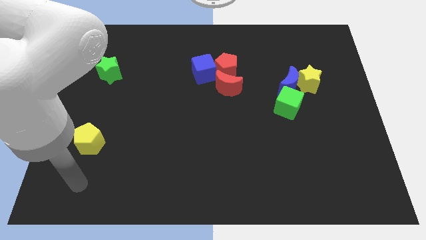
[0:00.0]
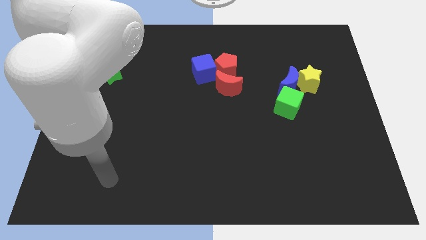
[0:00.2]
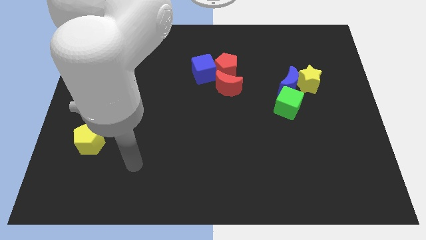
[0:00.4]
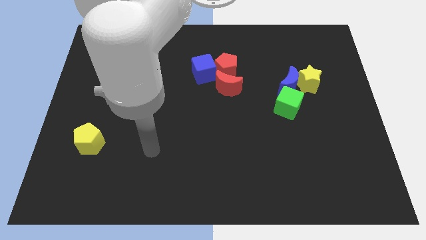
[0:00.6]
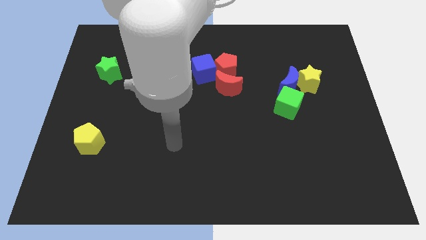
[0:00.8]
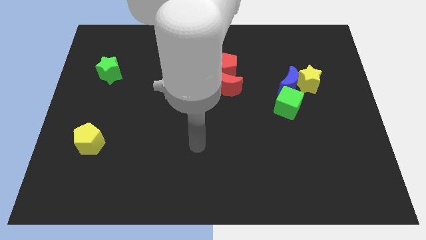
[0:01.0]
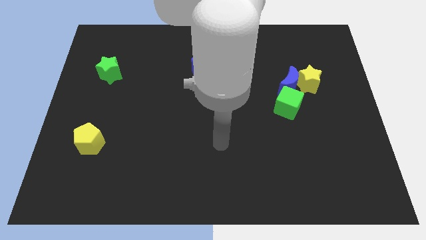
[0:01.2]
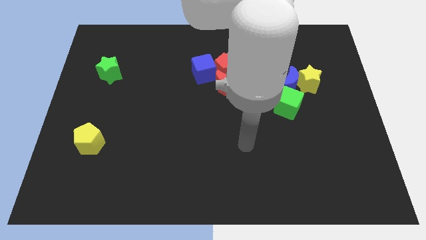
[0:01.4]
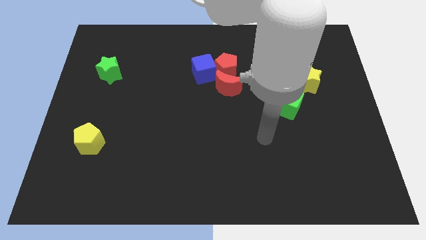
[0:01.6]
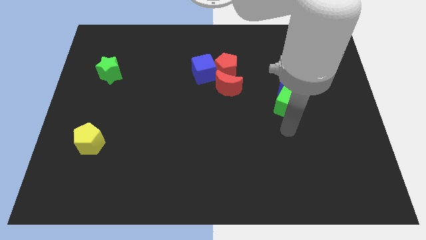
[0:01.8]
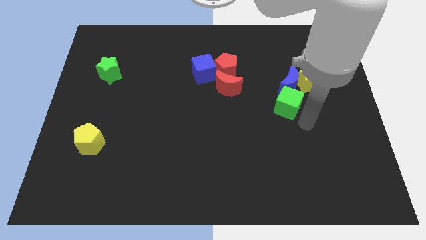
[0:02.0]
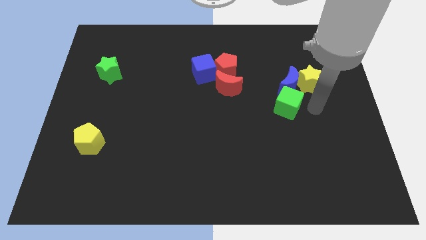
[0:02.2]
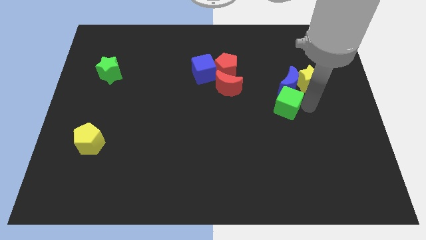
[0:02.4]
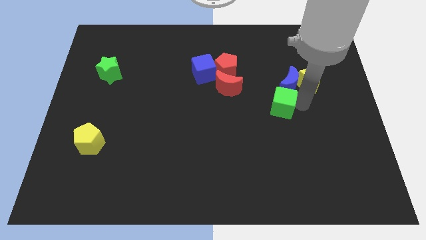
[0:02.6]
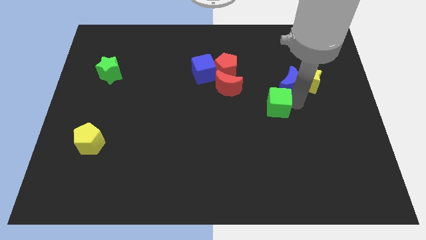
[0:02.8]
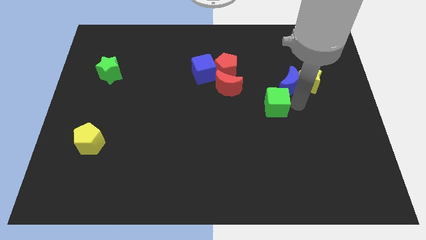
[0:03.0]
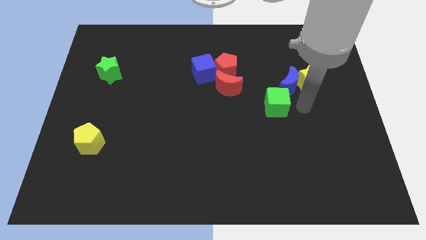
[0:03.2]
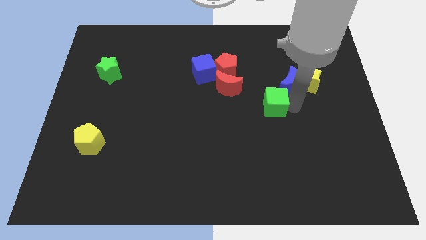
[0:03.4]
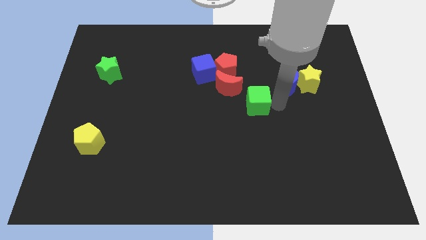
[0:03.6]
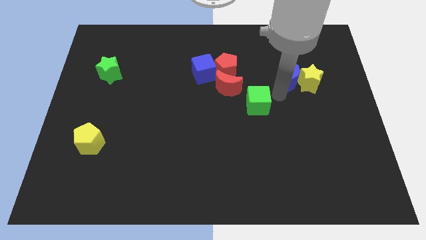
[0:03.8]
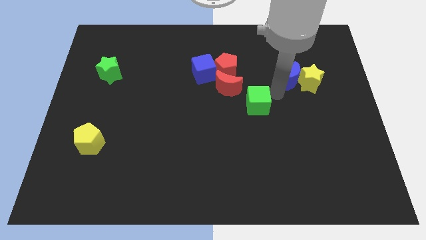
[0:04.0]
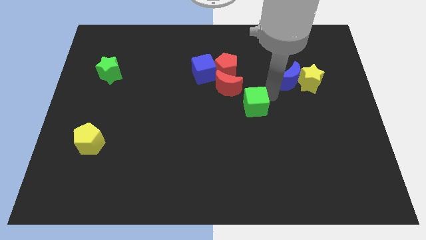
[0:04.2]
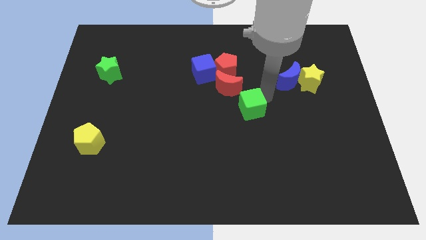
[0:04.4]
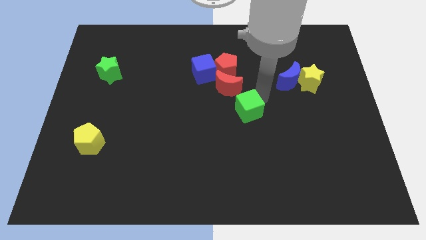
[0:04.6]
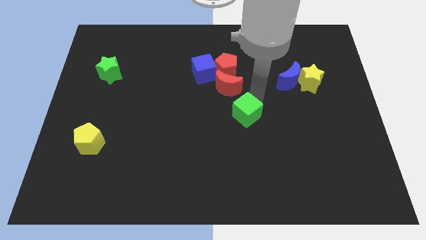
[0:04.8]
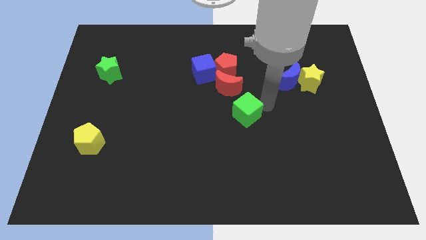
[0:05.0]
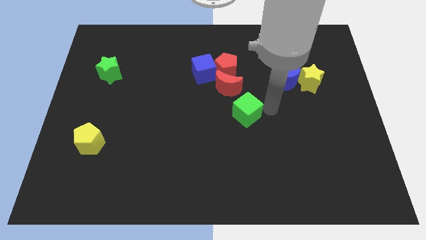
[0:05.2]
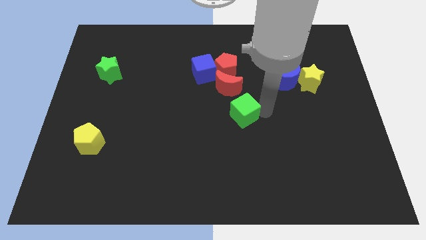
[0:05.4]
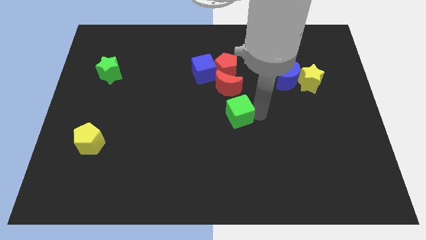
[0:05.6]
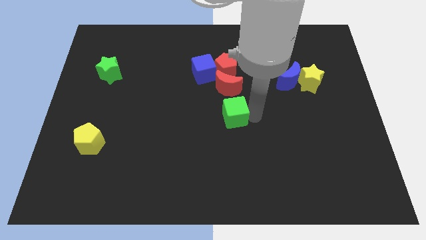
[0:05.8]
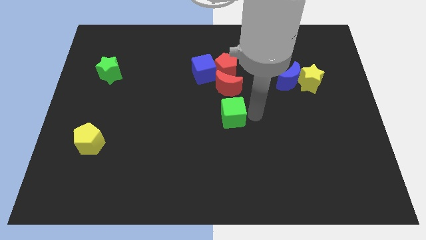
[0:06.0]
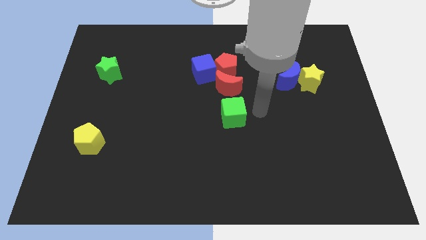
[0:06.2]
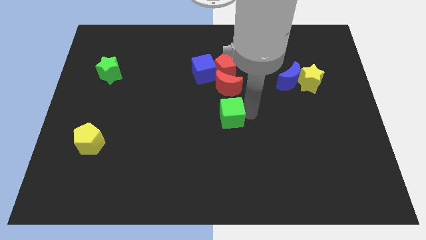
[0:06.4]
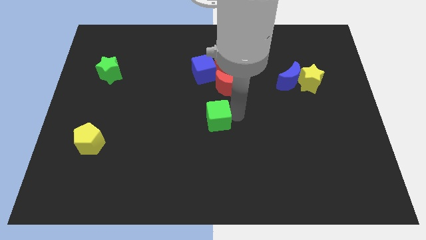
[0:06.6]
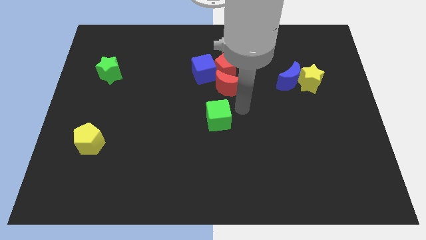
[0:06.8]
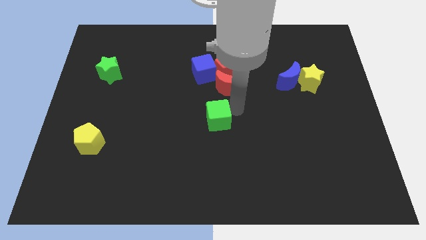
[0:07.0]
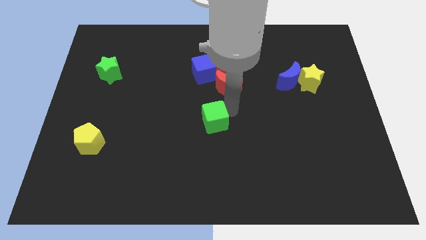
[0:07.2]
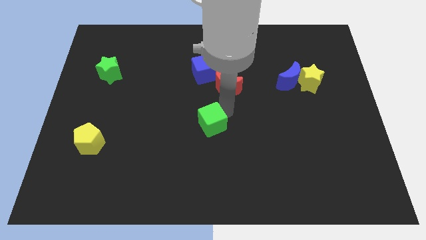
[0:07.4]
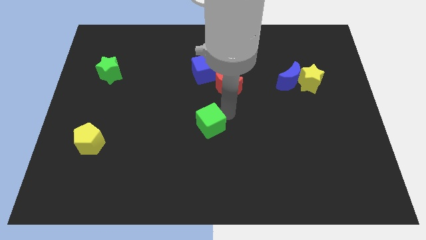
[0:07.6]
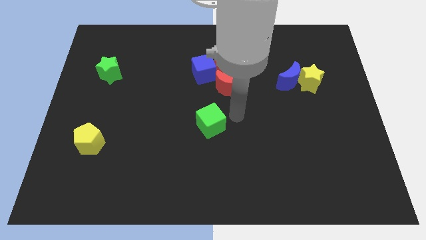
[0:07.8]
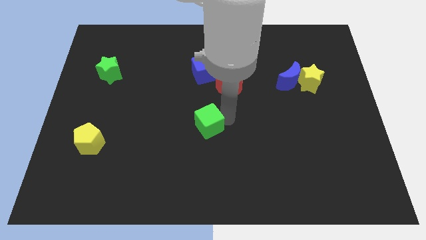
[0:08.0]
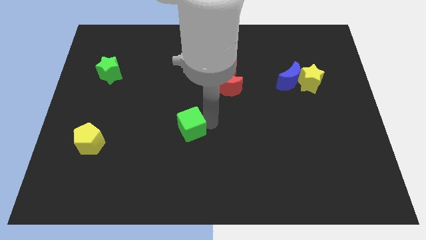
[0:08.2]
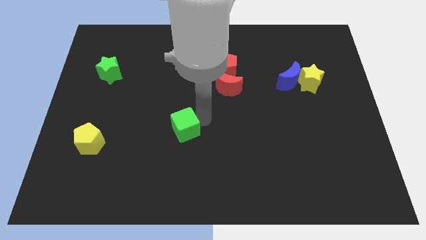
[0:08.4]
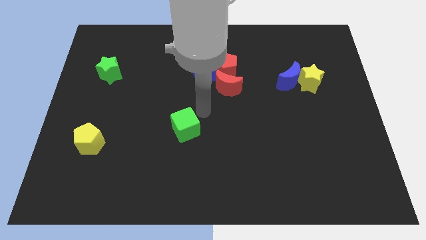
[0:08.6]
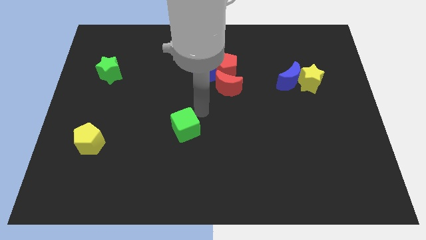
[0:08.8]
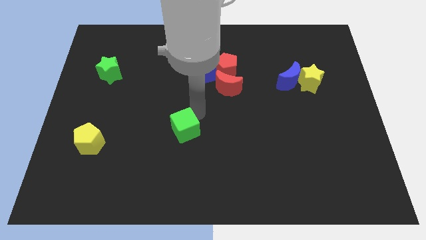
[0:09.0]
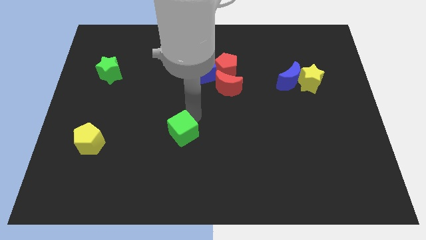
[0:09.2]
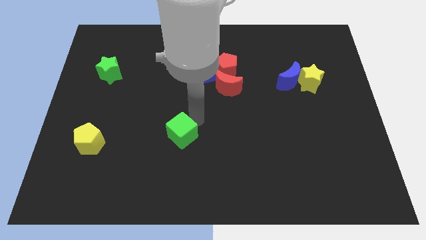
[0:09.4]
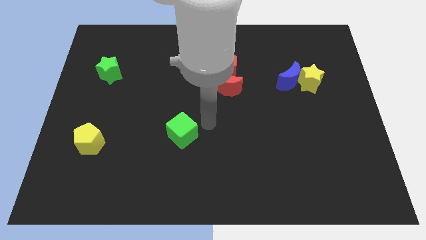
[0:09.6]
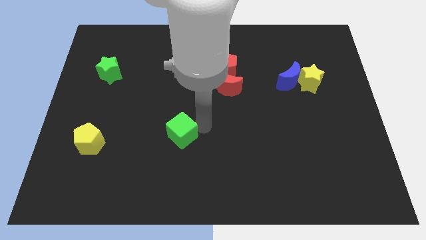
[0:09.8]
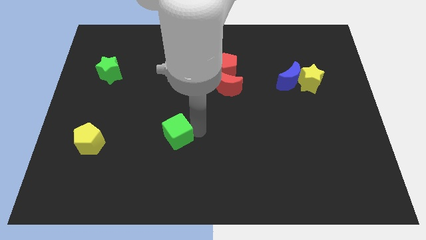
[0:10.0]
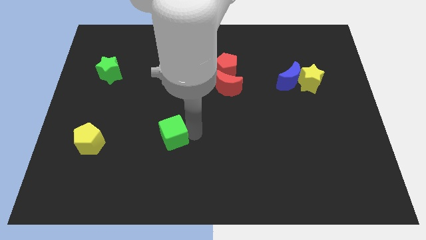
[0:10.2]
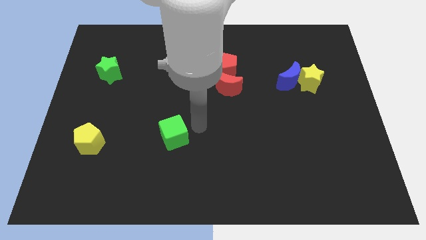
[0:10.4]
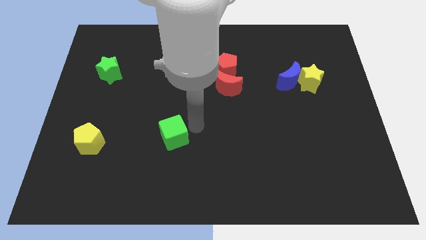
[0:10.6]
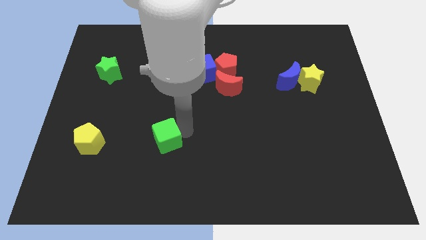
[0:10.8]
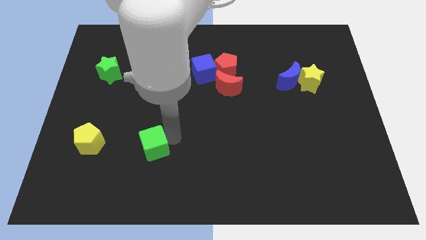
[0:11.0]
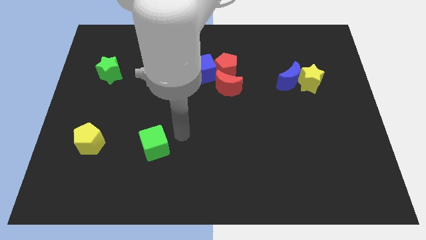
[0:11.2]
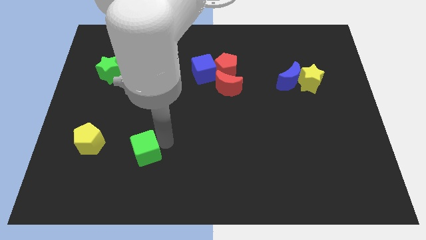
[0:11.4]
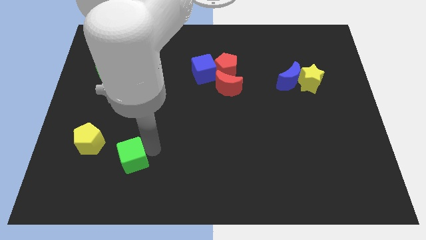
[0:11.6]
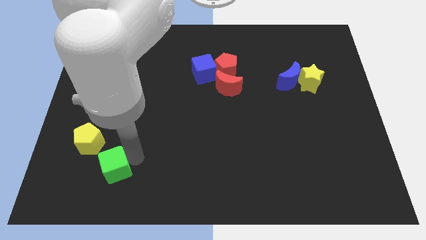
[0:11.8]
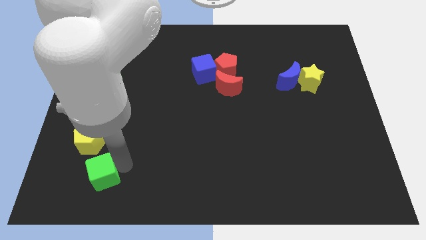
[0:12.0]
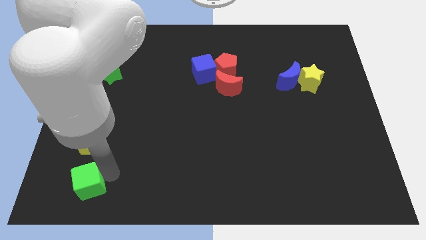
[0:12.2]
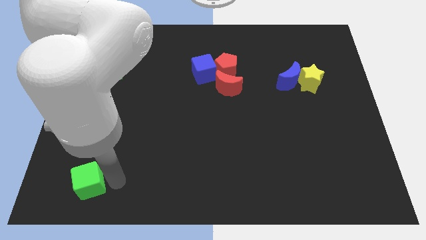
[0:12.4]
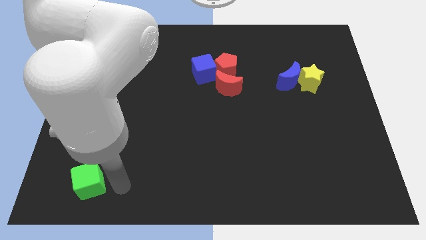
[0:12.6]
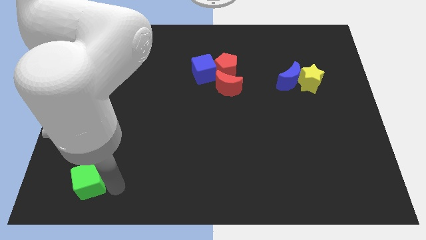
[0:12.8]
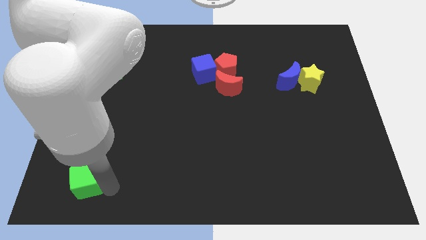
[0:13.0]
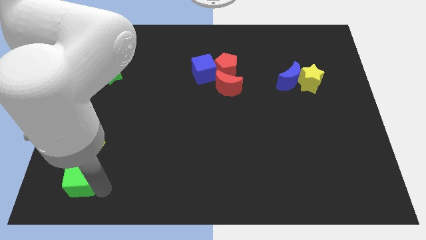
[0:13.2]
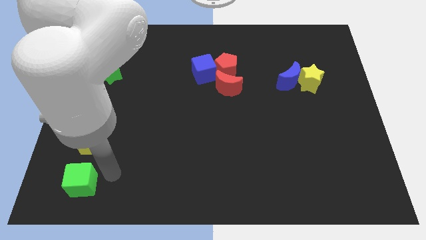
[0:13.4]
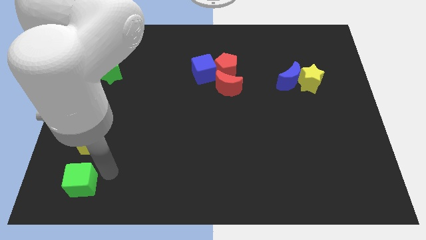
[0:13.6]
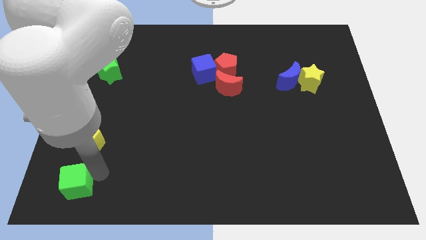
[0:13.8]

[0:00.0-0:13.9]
move the green cube to the bottom left of the board

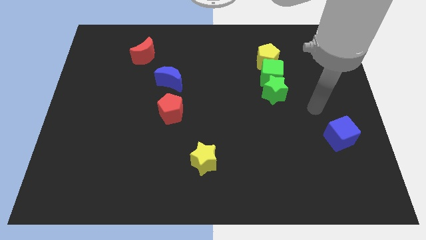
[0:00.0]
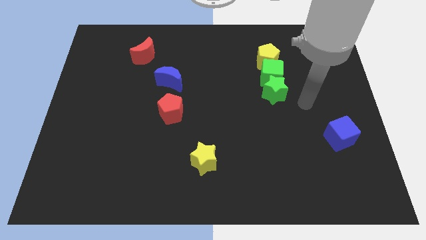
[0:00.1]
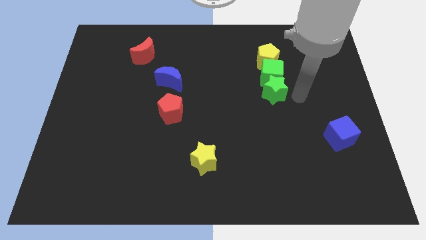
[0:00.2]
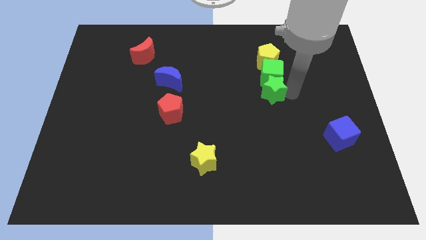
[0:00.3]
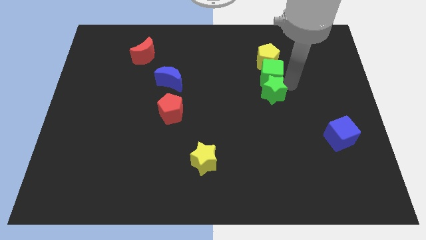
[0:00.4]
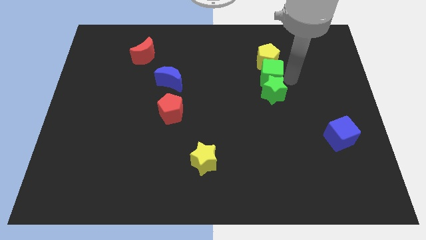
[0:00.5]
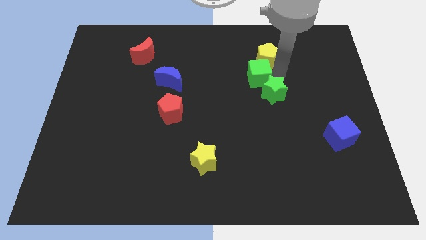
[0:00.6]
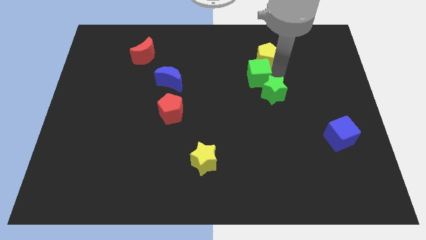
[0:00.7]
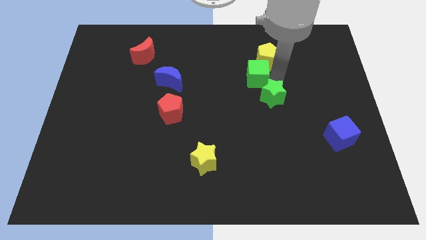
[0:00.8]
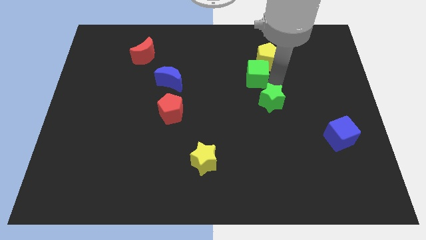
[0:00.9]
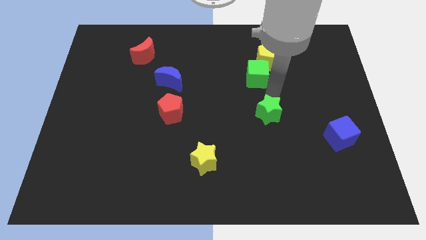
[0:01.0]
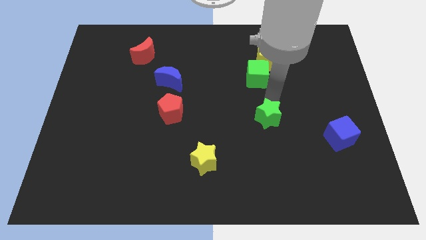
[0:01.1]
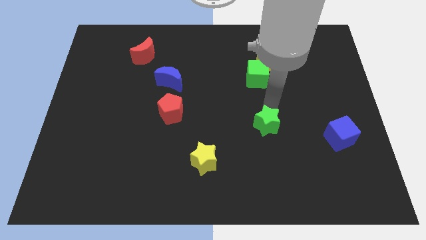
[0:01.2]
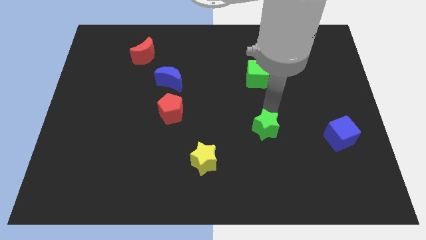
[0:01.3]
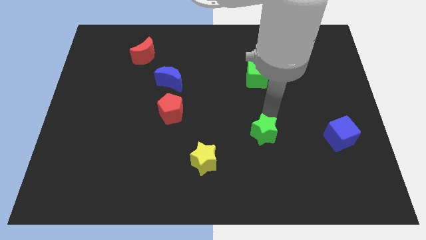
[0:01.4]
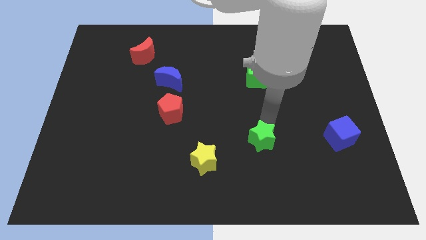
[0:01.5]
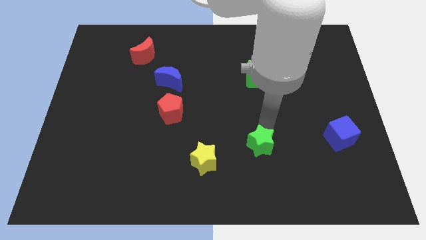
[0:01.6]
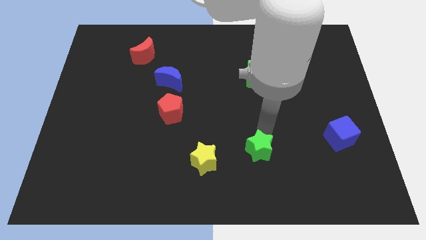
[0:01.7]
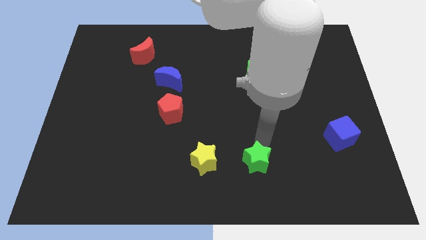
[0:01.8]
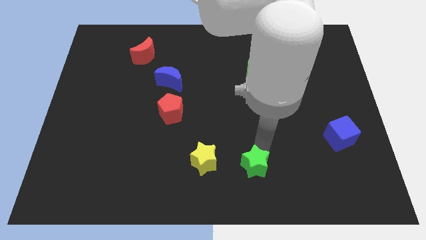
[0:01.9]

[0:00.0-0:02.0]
move the green star to the bottom side
